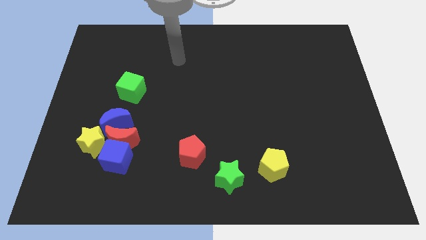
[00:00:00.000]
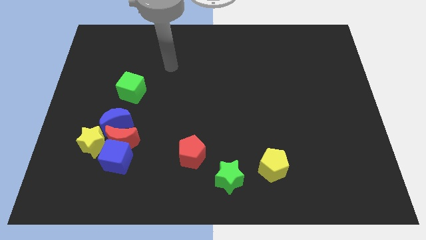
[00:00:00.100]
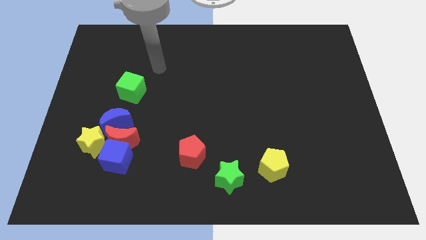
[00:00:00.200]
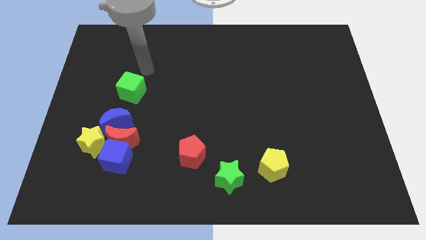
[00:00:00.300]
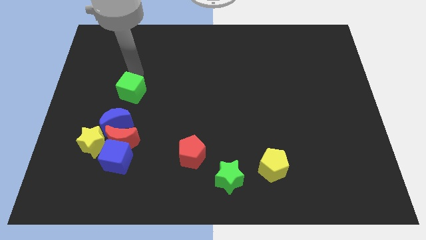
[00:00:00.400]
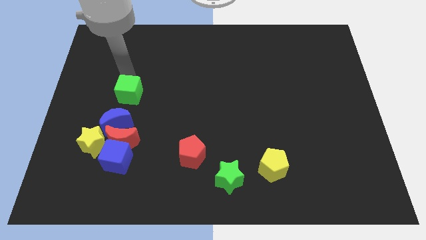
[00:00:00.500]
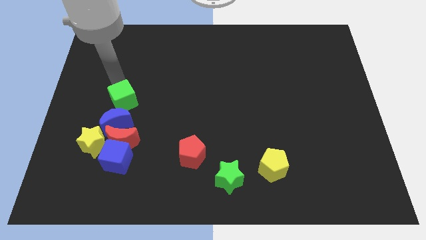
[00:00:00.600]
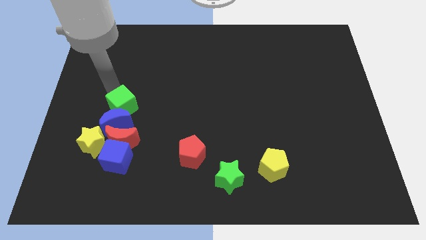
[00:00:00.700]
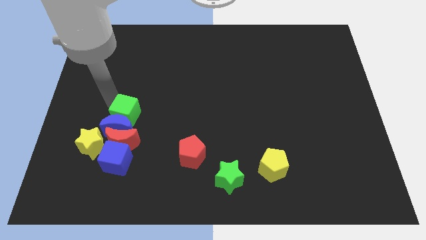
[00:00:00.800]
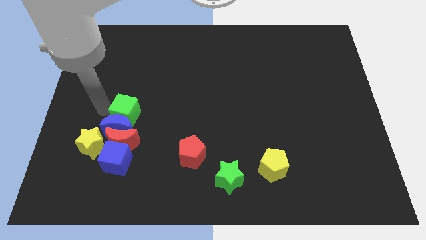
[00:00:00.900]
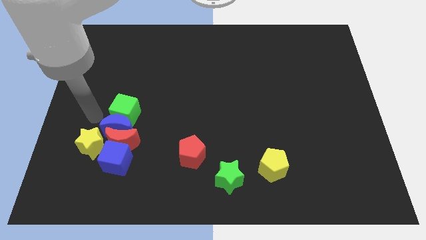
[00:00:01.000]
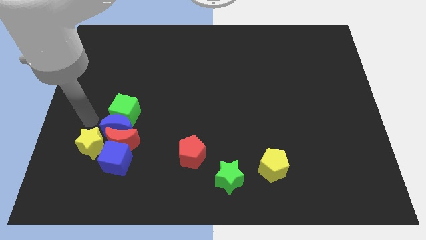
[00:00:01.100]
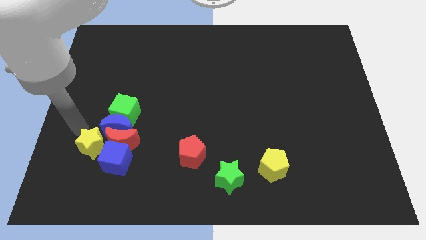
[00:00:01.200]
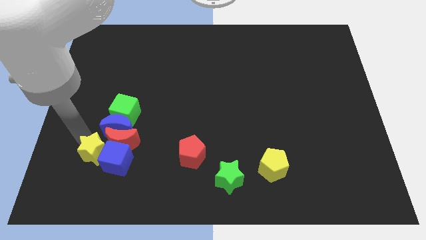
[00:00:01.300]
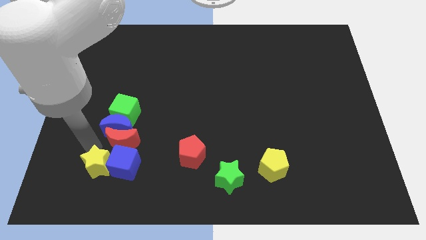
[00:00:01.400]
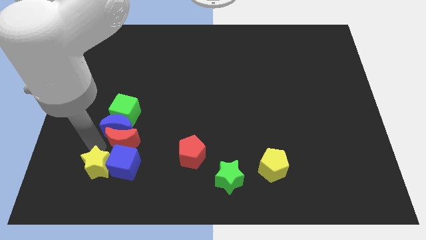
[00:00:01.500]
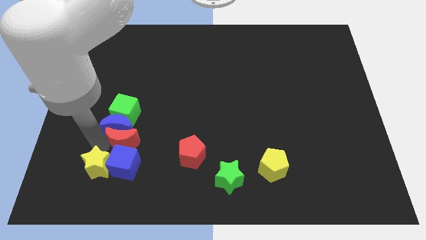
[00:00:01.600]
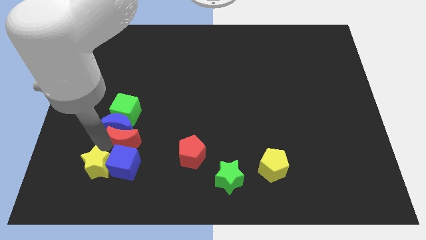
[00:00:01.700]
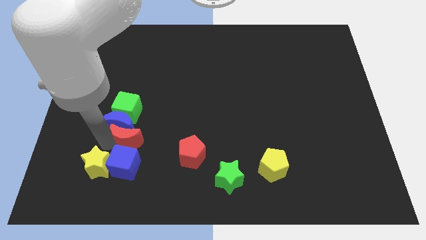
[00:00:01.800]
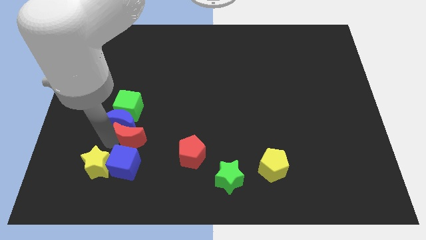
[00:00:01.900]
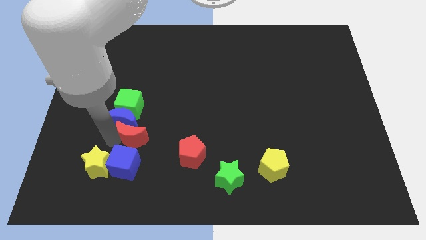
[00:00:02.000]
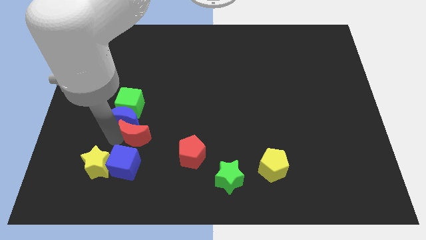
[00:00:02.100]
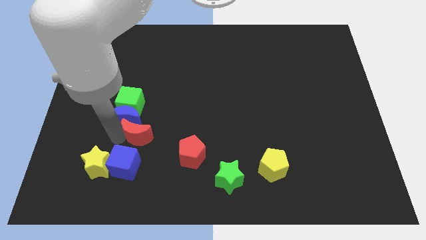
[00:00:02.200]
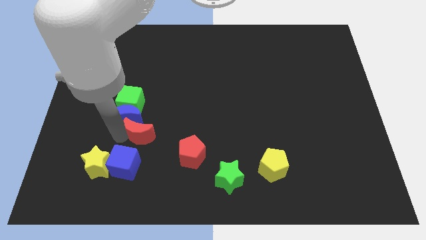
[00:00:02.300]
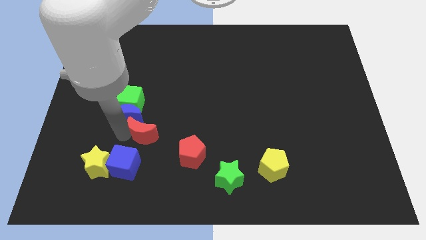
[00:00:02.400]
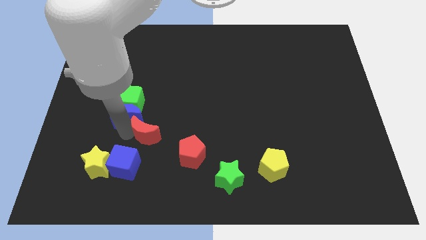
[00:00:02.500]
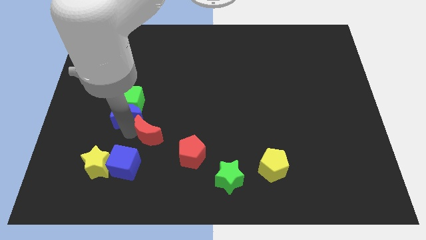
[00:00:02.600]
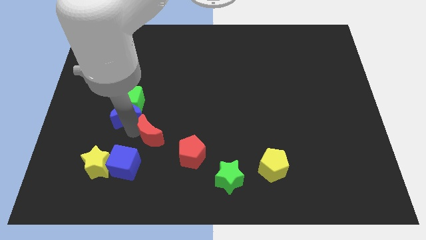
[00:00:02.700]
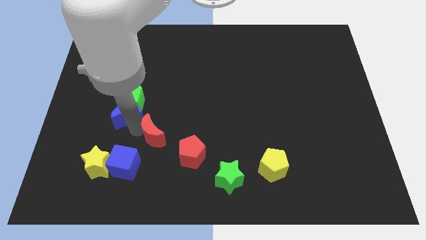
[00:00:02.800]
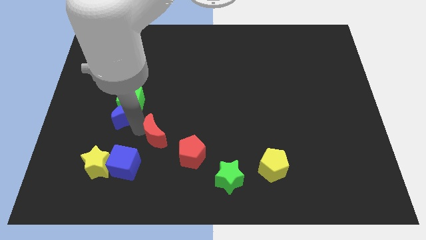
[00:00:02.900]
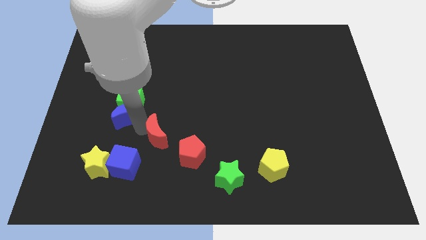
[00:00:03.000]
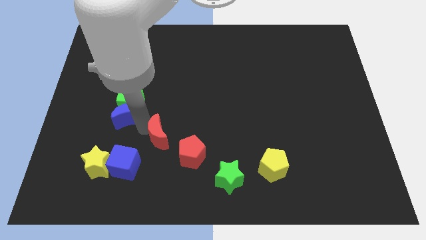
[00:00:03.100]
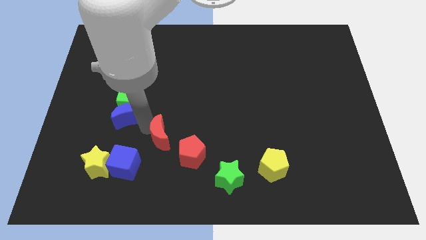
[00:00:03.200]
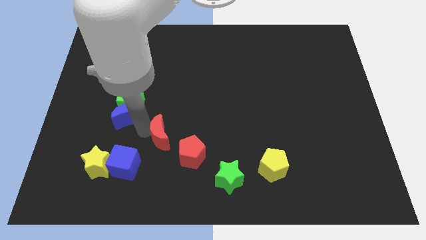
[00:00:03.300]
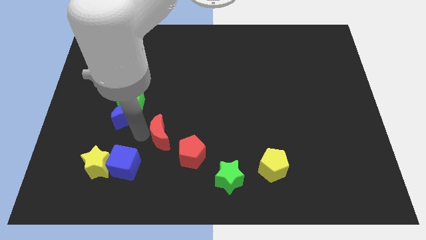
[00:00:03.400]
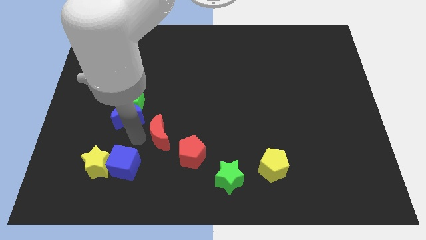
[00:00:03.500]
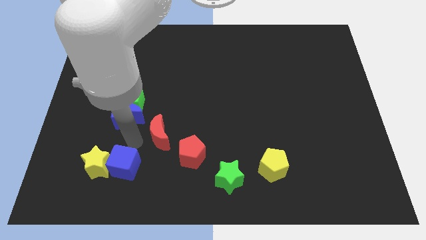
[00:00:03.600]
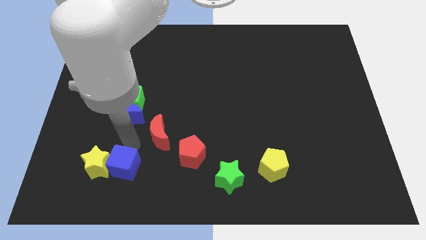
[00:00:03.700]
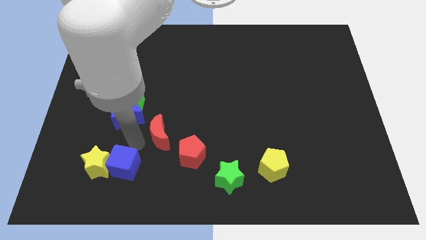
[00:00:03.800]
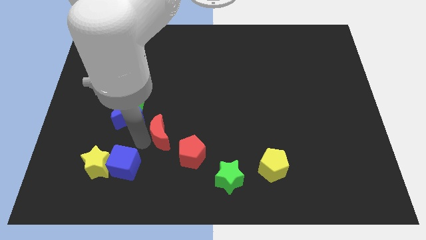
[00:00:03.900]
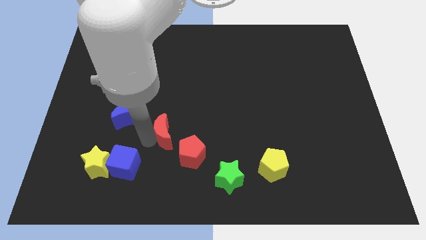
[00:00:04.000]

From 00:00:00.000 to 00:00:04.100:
separate the red moon from the group

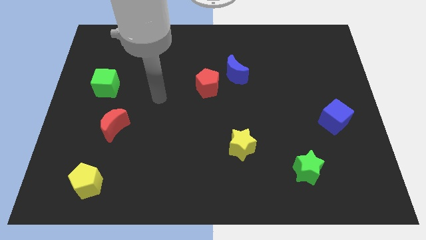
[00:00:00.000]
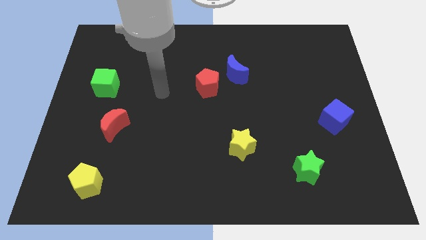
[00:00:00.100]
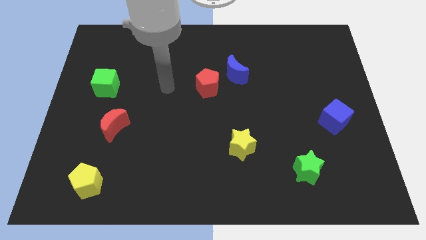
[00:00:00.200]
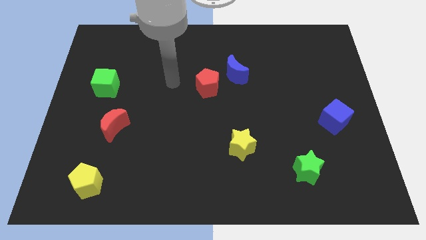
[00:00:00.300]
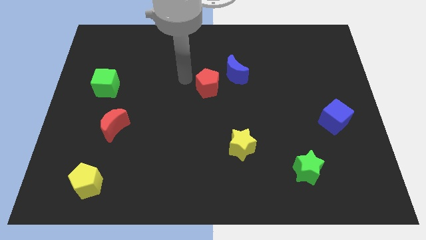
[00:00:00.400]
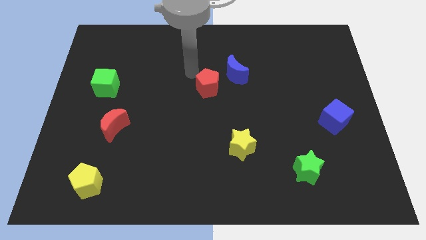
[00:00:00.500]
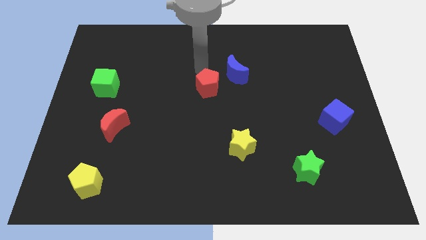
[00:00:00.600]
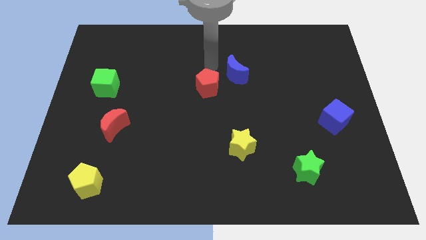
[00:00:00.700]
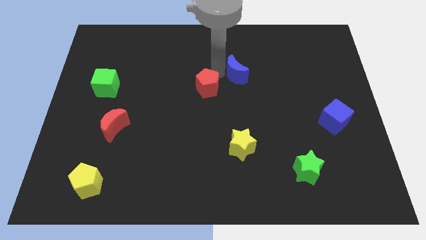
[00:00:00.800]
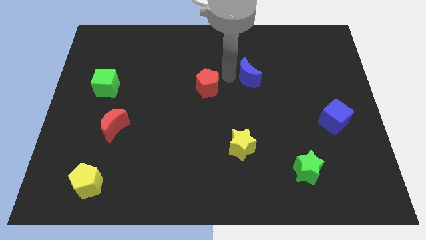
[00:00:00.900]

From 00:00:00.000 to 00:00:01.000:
separate the red pentagon from the blue moon

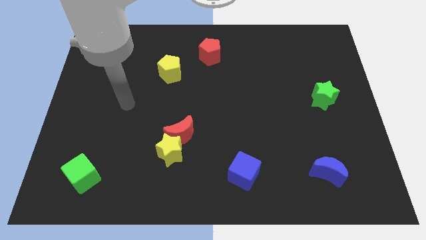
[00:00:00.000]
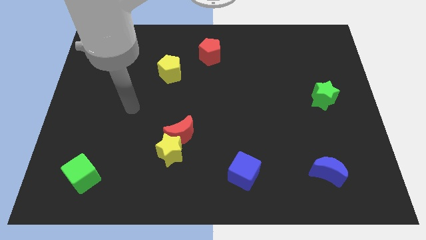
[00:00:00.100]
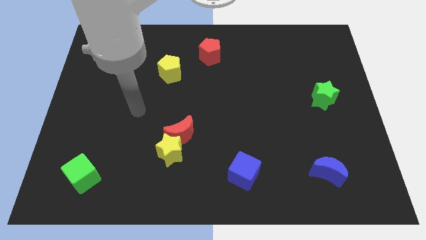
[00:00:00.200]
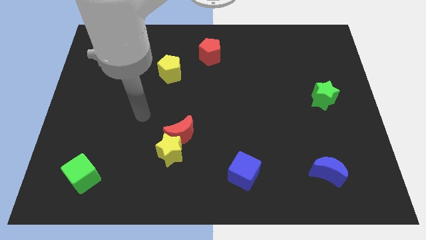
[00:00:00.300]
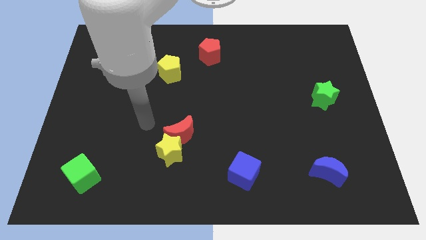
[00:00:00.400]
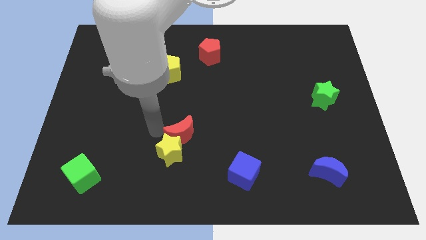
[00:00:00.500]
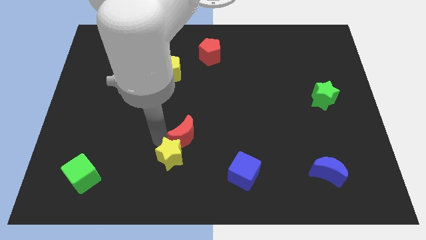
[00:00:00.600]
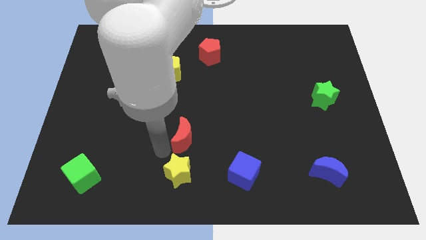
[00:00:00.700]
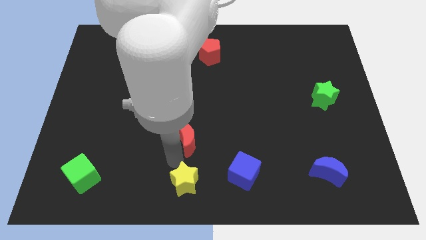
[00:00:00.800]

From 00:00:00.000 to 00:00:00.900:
move the red moon away from the yellow star

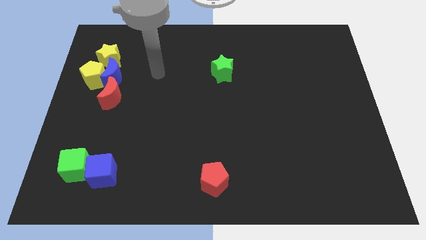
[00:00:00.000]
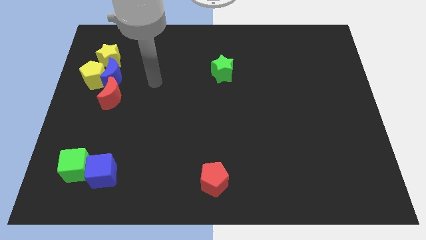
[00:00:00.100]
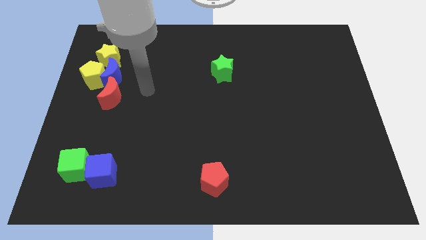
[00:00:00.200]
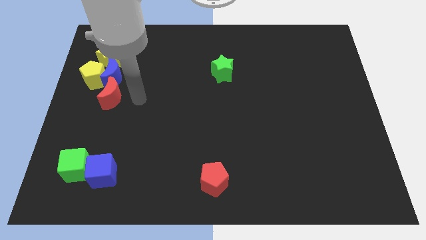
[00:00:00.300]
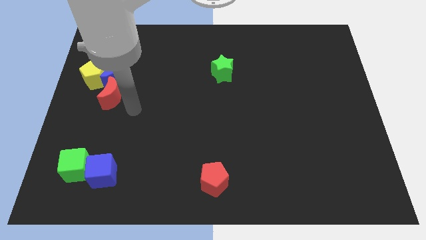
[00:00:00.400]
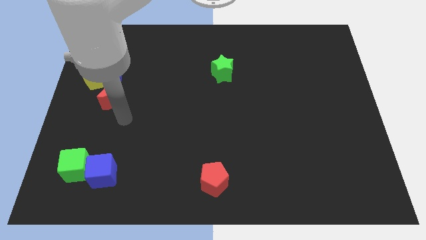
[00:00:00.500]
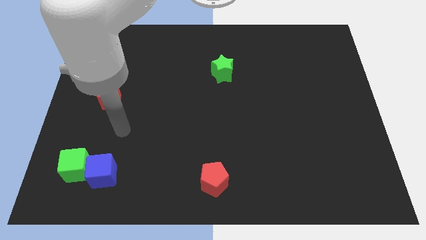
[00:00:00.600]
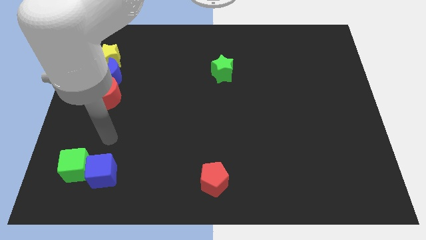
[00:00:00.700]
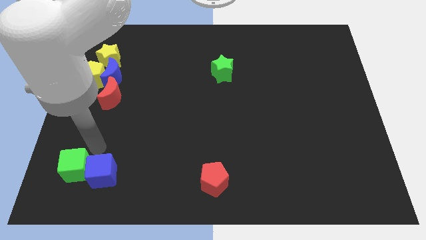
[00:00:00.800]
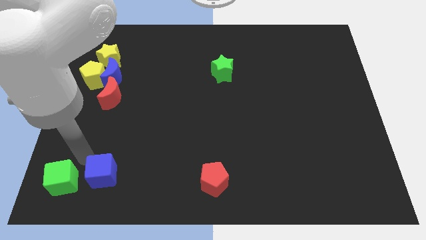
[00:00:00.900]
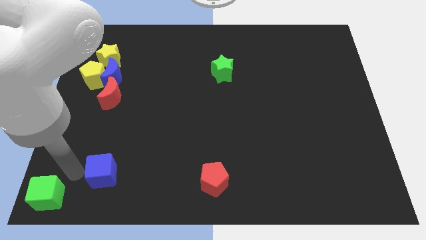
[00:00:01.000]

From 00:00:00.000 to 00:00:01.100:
separate the blue cube from the green cube

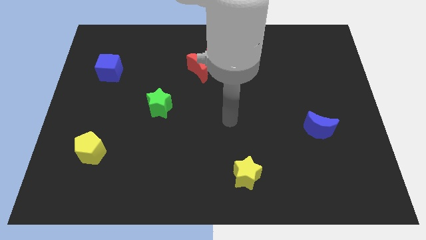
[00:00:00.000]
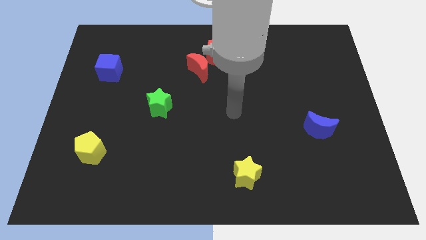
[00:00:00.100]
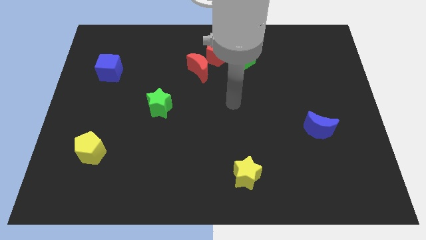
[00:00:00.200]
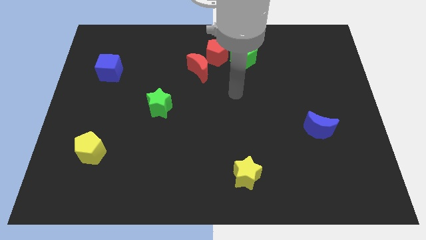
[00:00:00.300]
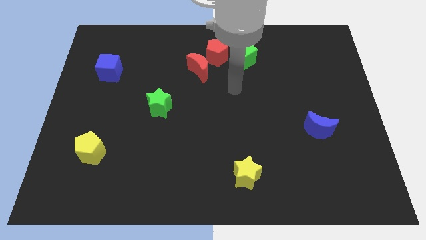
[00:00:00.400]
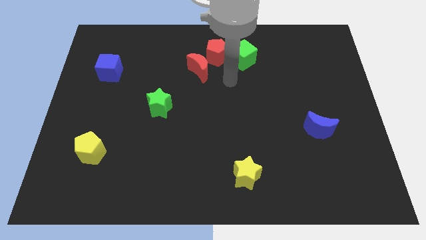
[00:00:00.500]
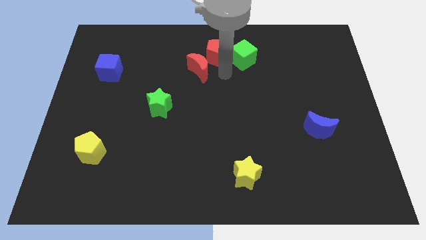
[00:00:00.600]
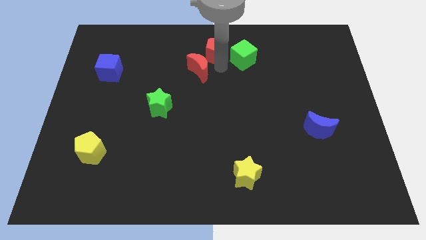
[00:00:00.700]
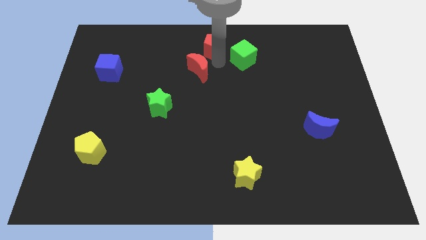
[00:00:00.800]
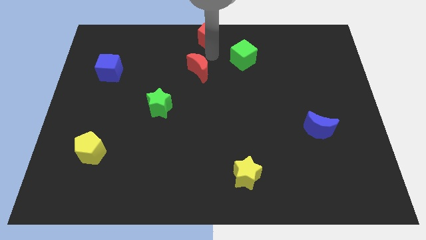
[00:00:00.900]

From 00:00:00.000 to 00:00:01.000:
separate the red moon from the red pentagon

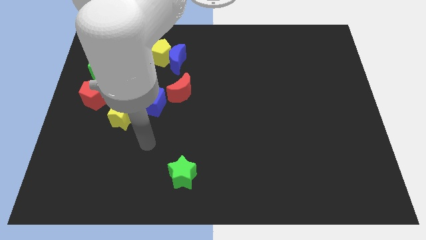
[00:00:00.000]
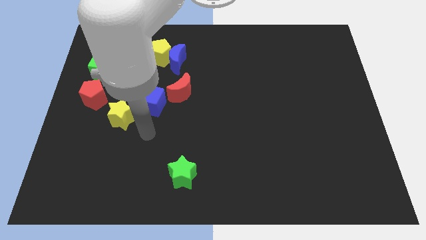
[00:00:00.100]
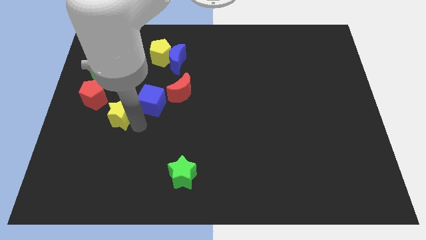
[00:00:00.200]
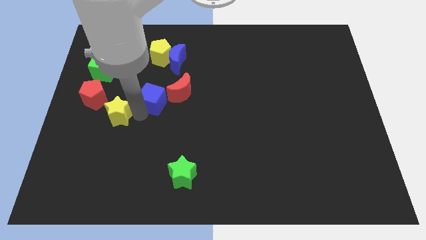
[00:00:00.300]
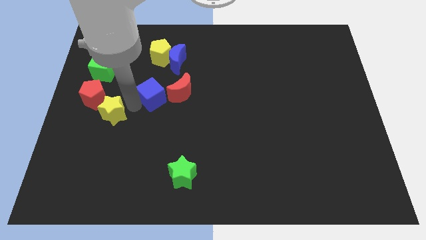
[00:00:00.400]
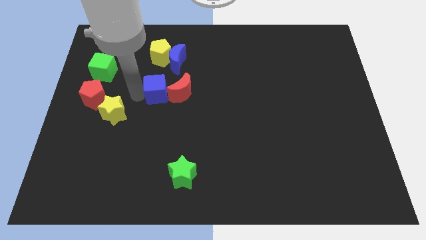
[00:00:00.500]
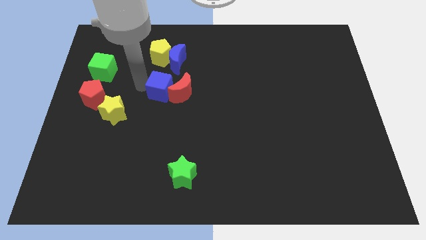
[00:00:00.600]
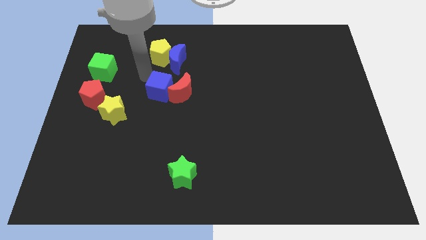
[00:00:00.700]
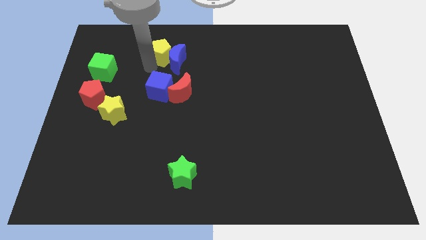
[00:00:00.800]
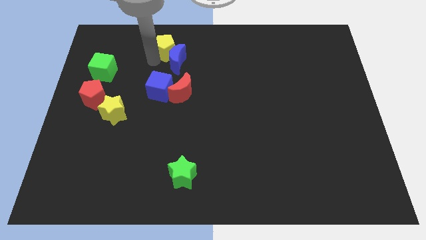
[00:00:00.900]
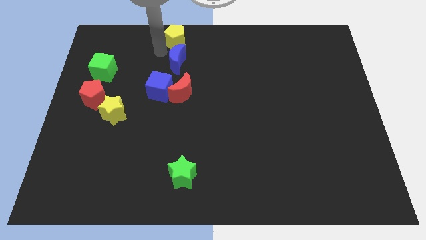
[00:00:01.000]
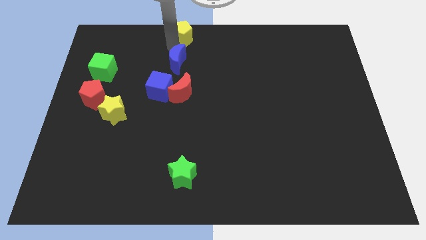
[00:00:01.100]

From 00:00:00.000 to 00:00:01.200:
move the blue moon away from the yellow pentagon
